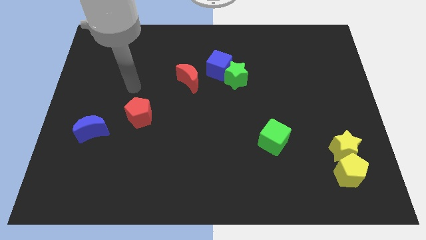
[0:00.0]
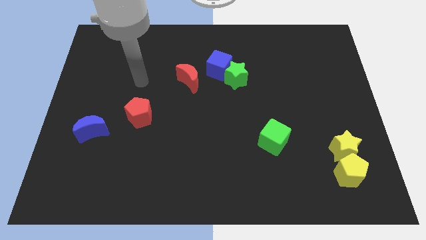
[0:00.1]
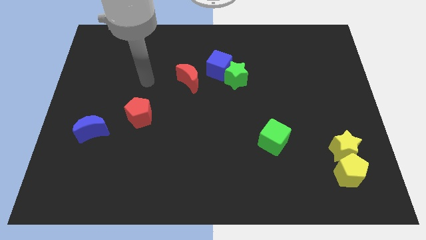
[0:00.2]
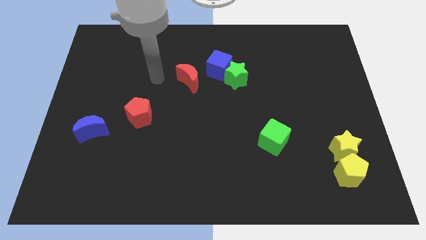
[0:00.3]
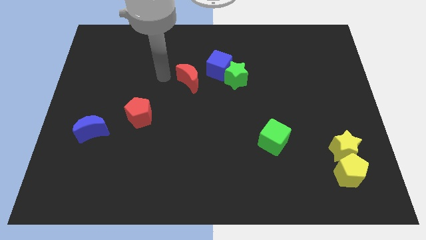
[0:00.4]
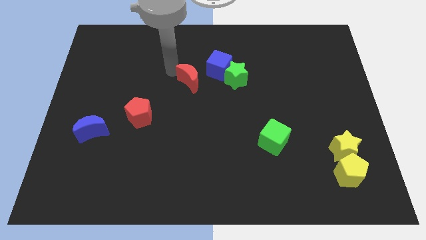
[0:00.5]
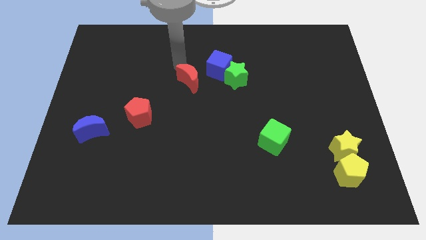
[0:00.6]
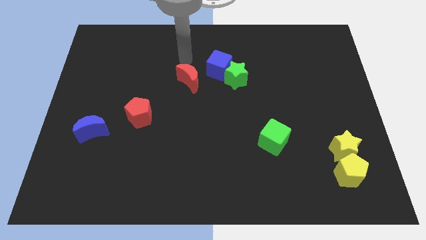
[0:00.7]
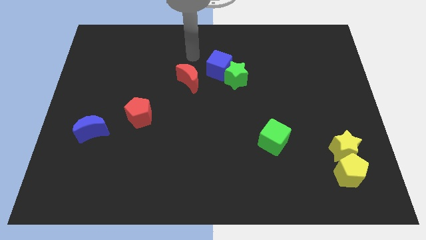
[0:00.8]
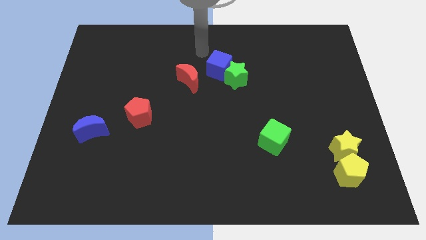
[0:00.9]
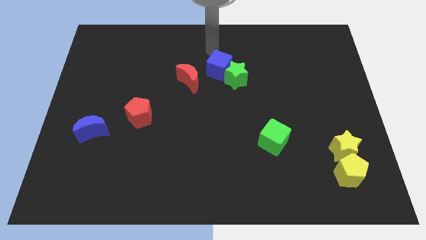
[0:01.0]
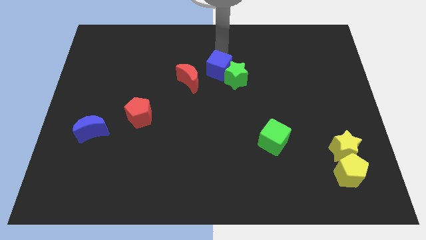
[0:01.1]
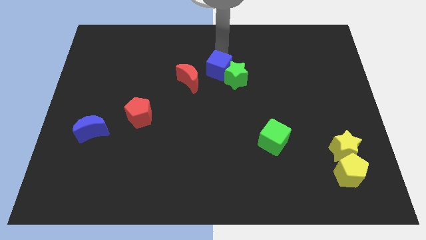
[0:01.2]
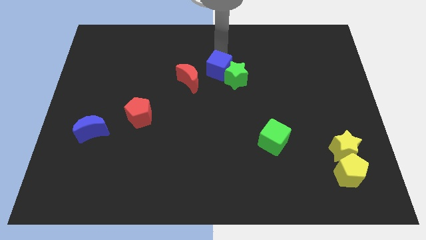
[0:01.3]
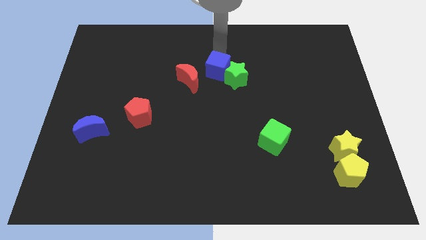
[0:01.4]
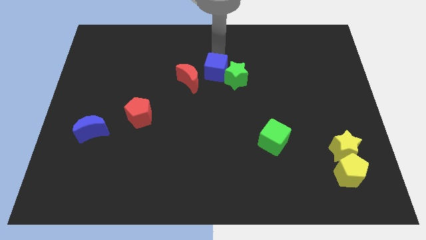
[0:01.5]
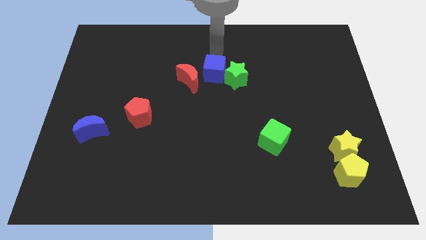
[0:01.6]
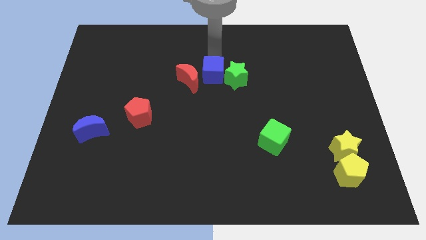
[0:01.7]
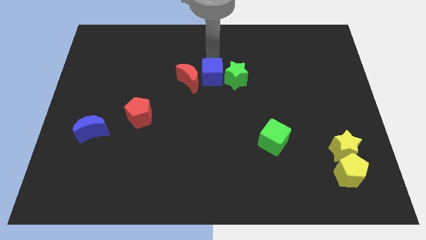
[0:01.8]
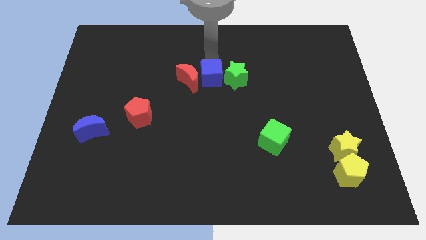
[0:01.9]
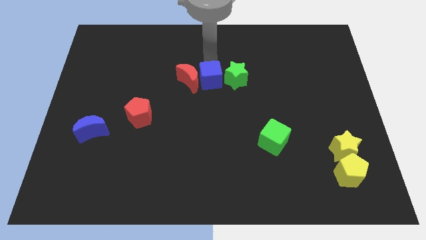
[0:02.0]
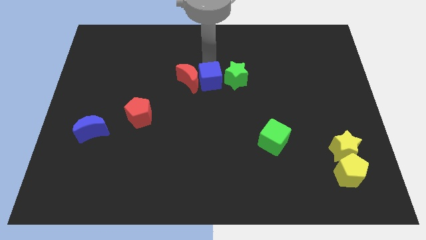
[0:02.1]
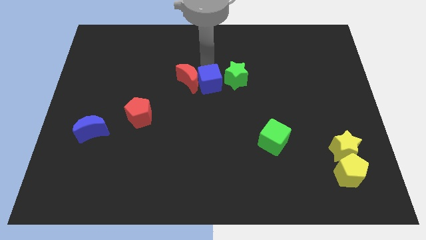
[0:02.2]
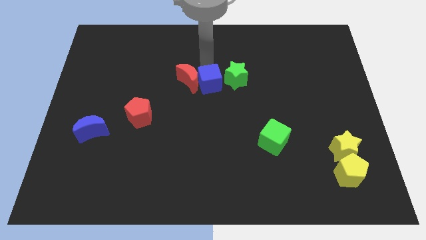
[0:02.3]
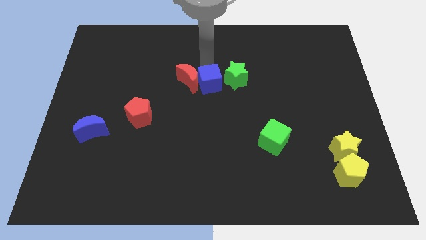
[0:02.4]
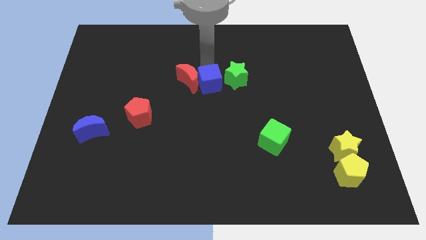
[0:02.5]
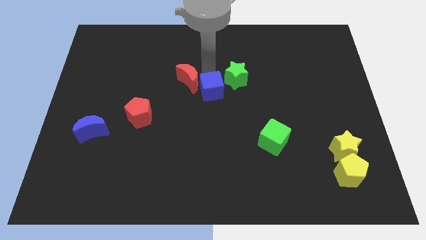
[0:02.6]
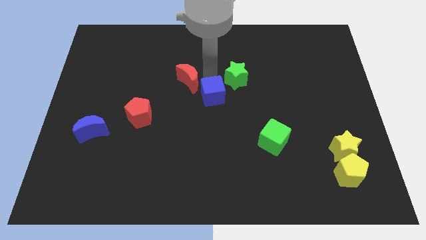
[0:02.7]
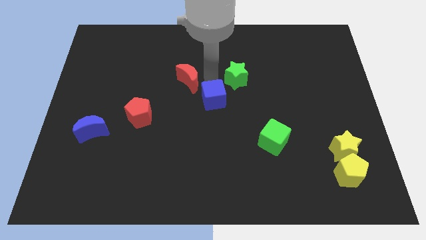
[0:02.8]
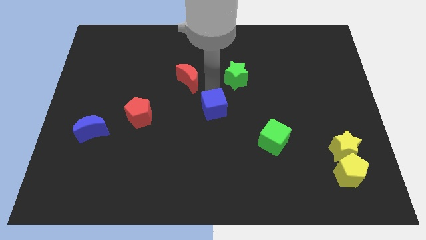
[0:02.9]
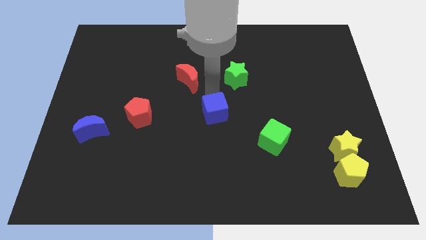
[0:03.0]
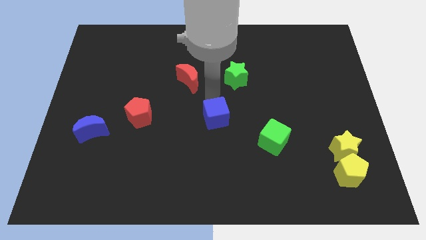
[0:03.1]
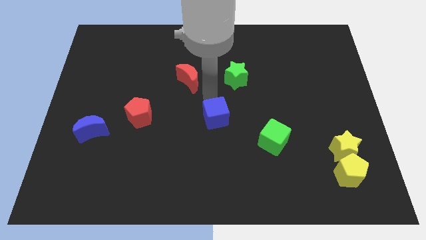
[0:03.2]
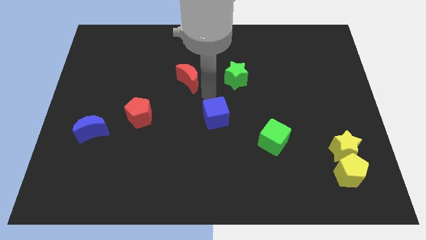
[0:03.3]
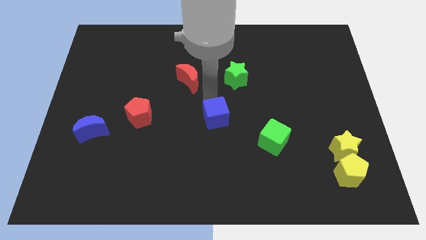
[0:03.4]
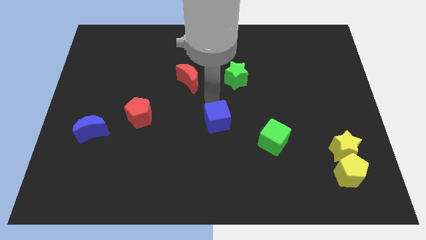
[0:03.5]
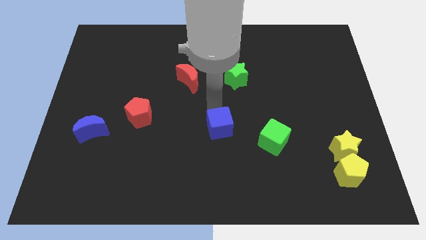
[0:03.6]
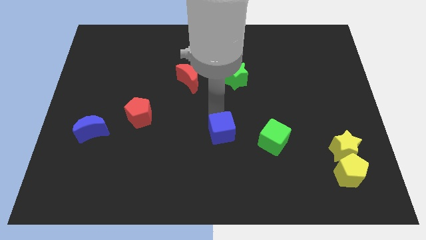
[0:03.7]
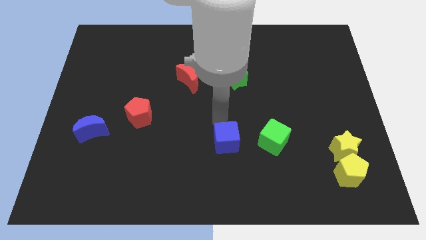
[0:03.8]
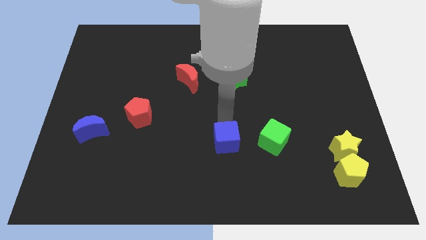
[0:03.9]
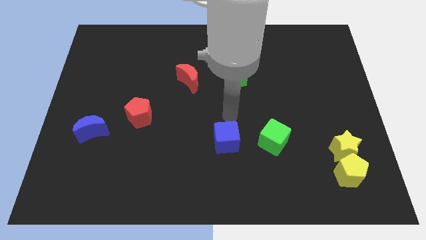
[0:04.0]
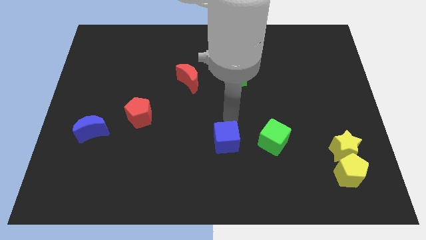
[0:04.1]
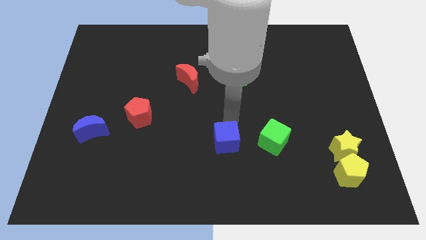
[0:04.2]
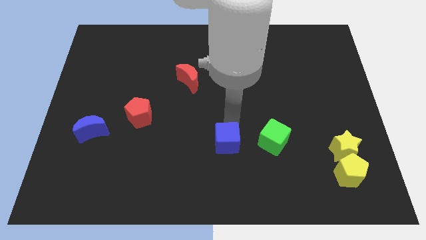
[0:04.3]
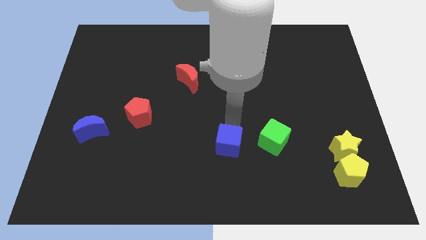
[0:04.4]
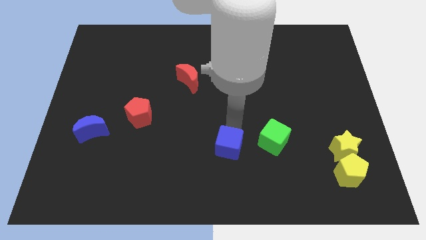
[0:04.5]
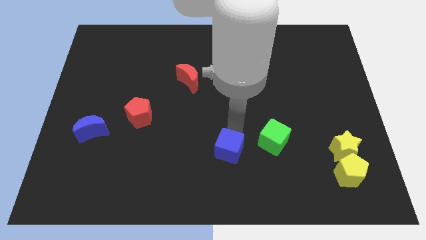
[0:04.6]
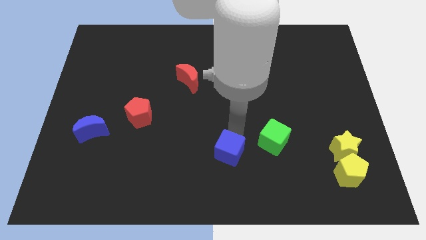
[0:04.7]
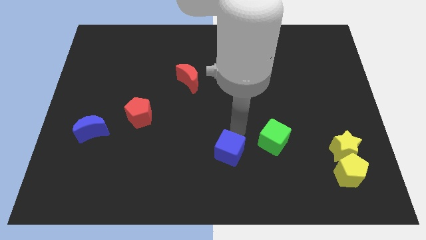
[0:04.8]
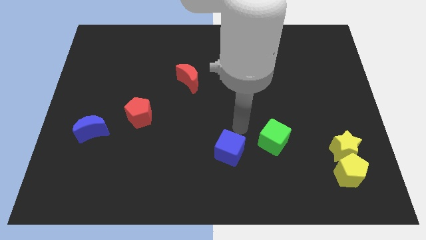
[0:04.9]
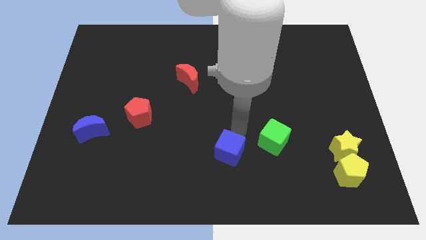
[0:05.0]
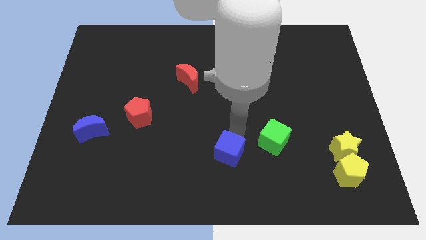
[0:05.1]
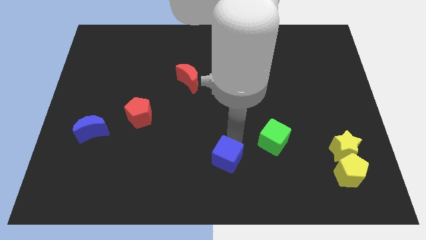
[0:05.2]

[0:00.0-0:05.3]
slide the blue cube to the bottom side

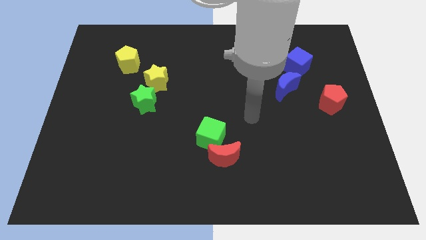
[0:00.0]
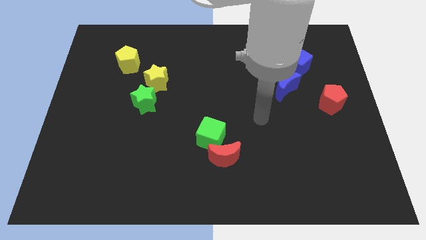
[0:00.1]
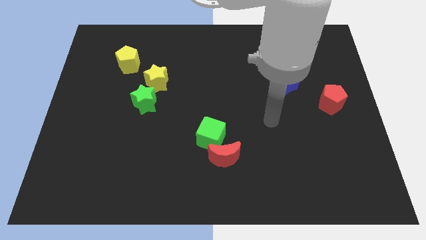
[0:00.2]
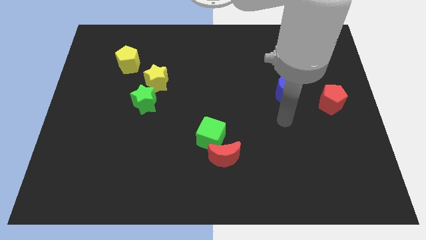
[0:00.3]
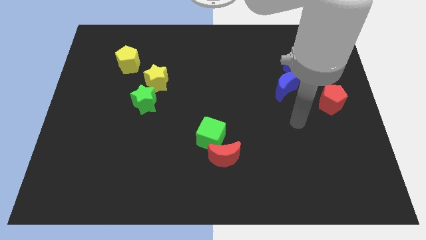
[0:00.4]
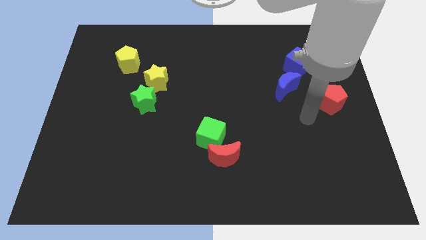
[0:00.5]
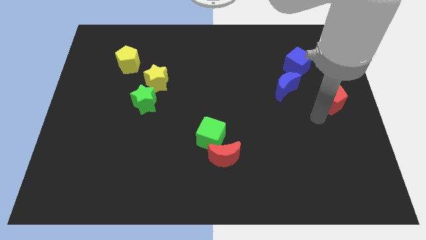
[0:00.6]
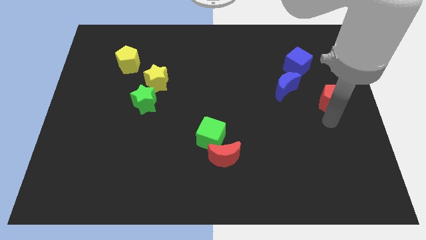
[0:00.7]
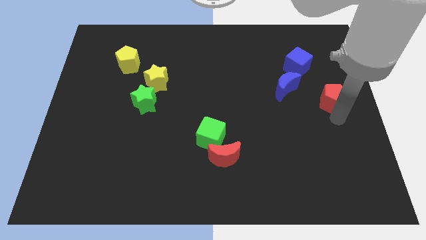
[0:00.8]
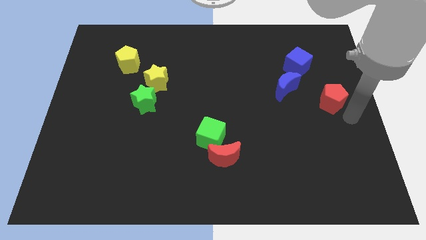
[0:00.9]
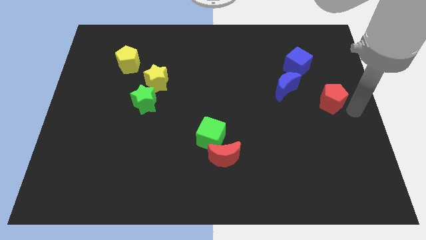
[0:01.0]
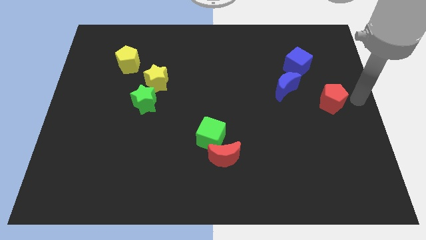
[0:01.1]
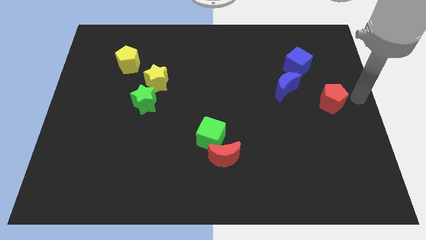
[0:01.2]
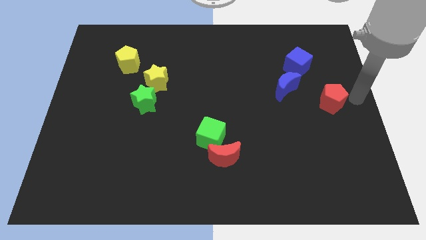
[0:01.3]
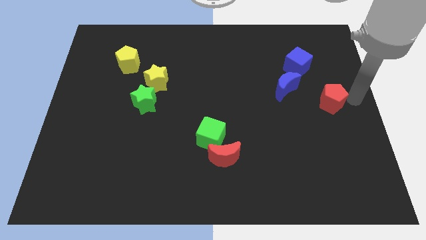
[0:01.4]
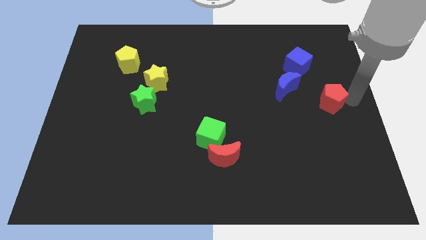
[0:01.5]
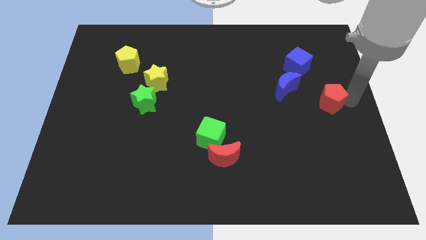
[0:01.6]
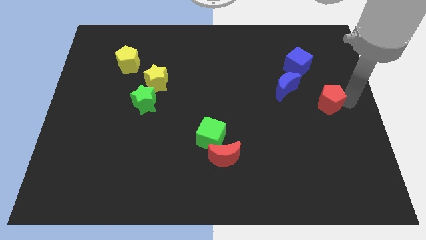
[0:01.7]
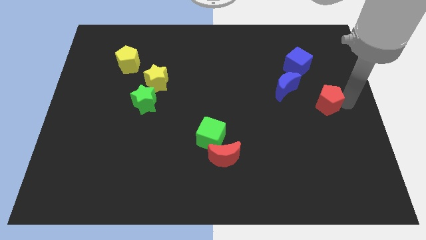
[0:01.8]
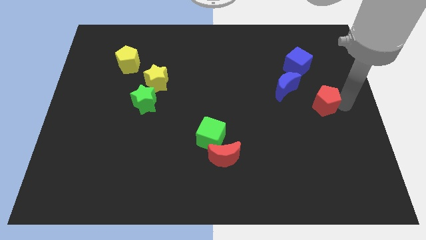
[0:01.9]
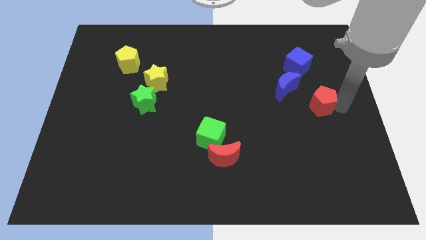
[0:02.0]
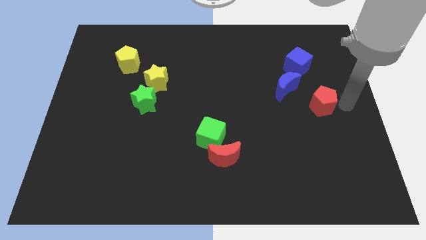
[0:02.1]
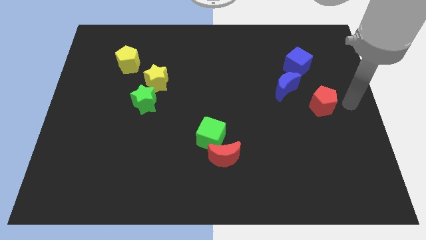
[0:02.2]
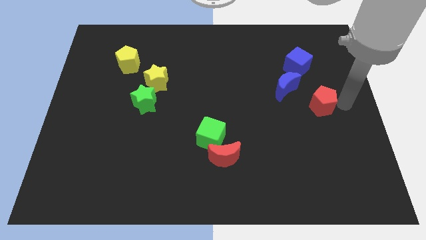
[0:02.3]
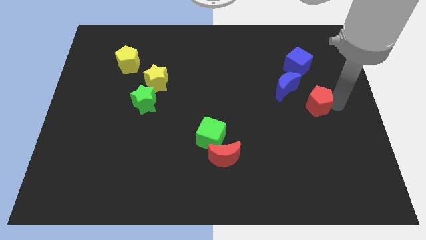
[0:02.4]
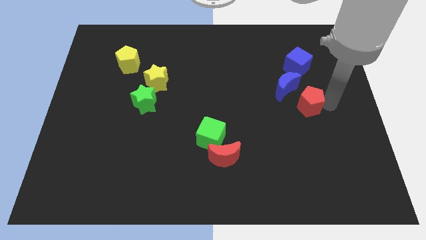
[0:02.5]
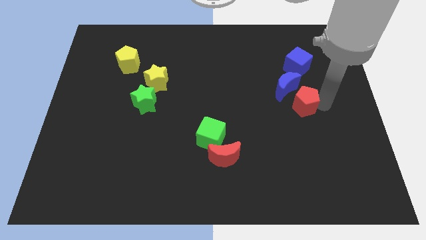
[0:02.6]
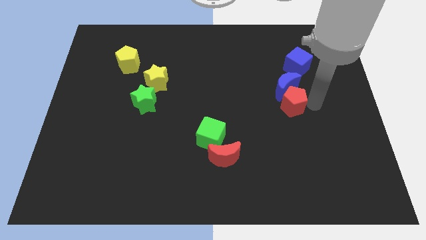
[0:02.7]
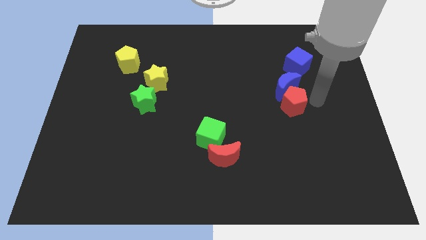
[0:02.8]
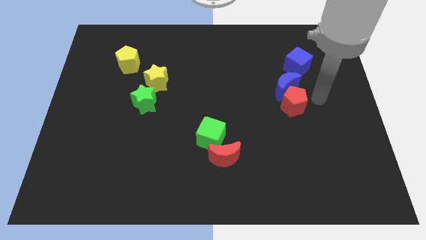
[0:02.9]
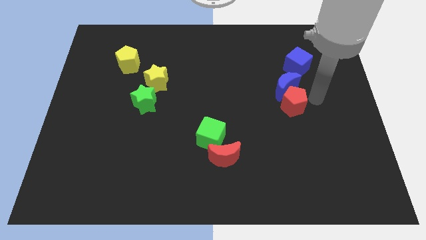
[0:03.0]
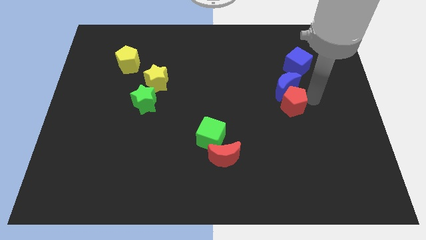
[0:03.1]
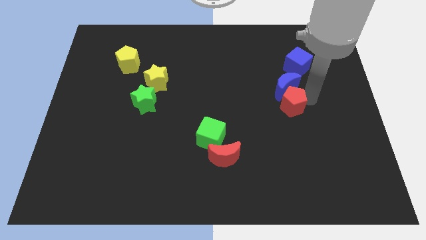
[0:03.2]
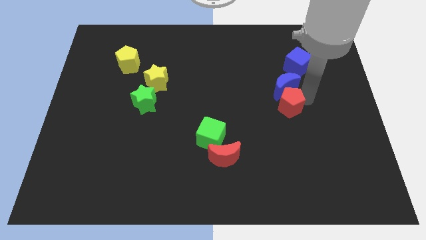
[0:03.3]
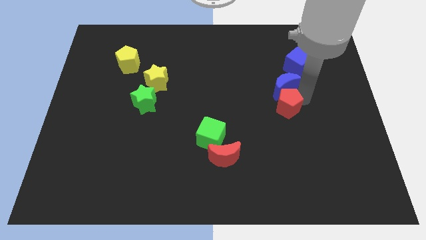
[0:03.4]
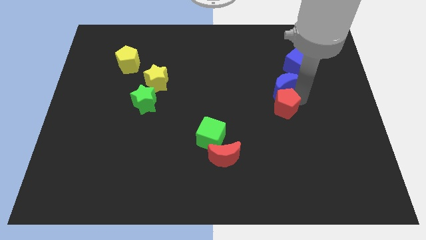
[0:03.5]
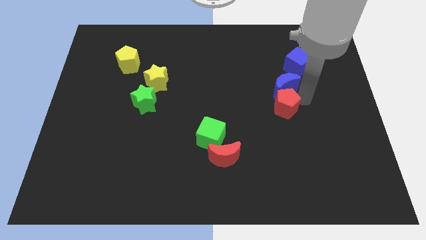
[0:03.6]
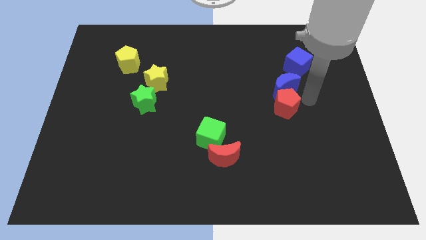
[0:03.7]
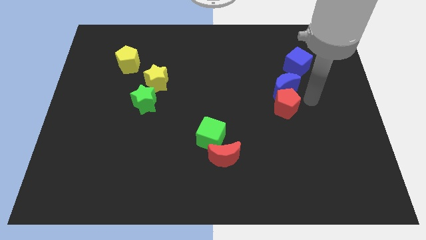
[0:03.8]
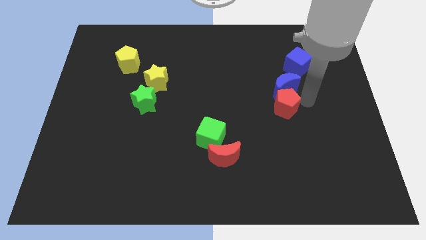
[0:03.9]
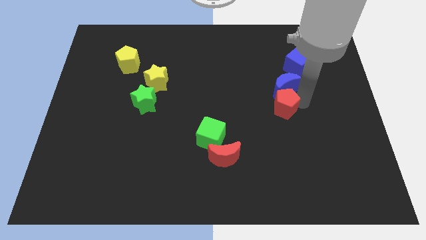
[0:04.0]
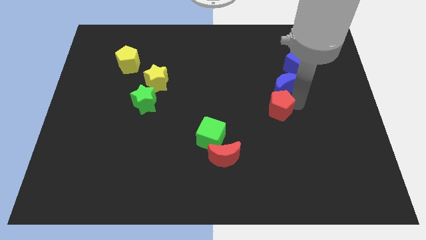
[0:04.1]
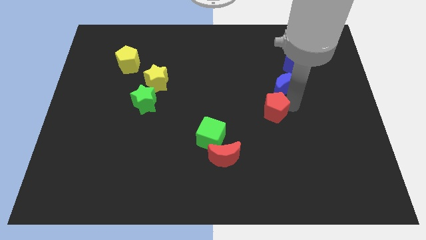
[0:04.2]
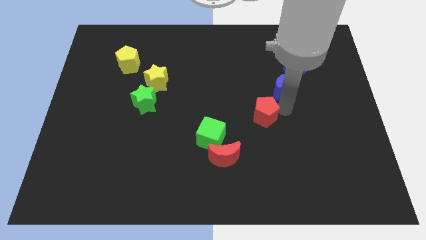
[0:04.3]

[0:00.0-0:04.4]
push the red pentagon to the middle of the board
